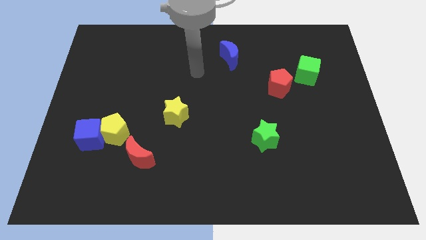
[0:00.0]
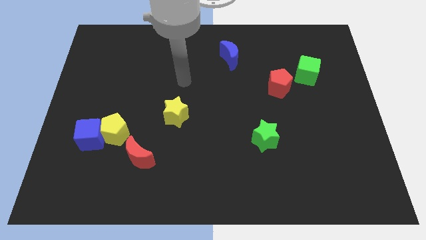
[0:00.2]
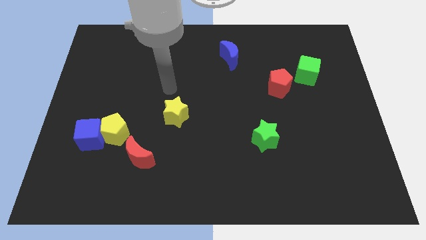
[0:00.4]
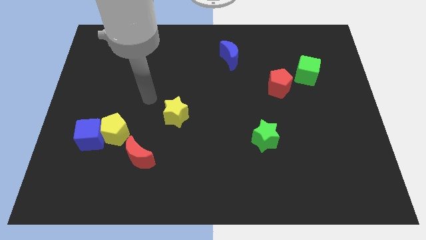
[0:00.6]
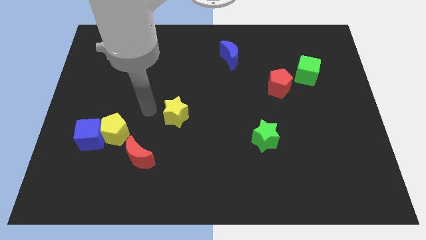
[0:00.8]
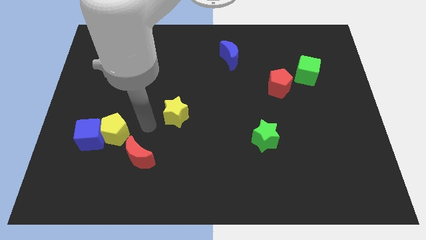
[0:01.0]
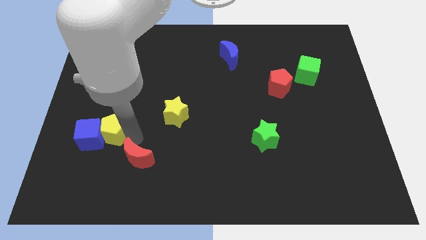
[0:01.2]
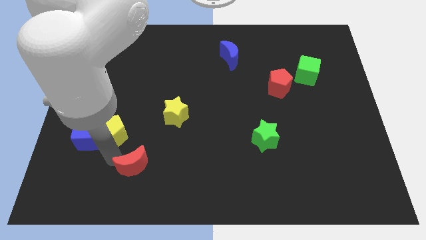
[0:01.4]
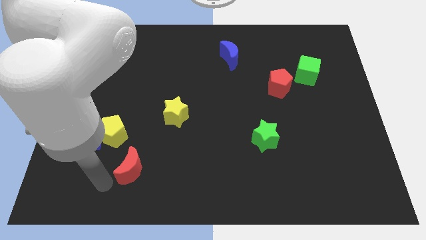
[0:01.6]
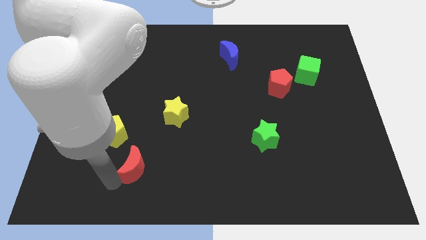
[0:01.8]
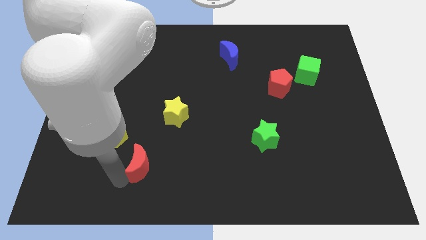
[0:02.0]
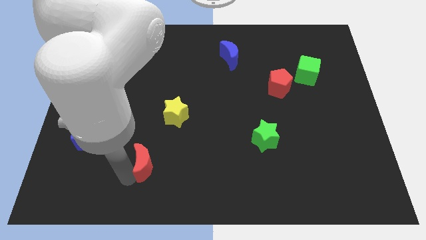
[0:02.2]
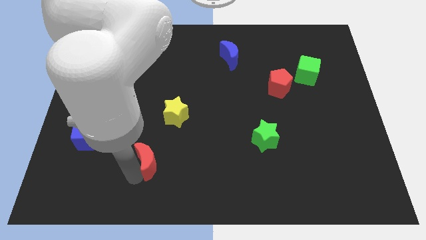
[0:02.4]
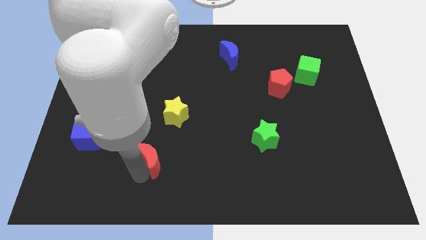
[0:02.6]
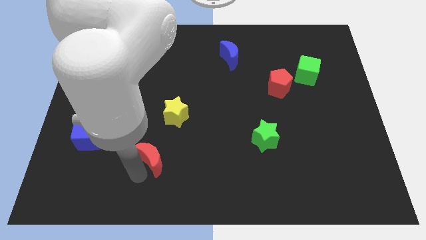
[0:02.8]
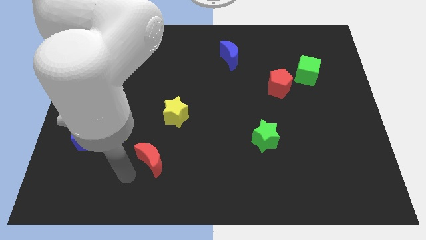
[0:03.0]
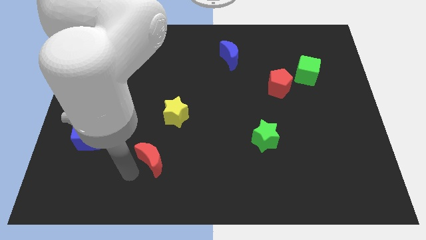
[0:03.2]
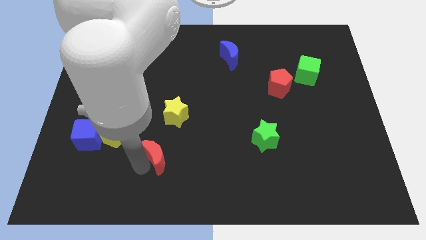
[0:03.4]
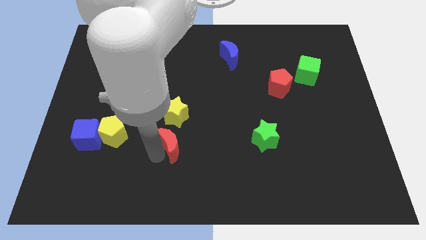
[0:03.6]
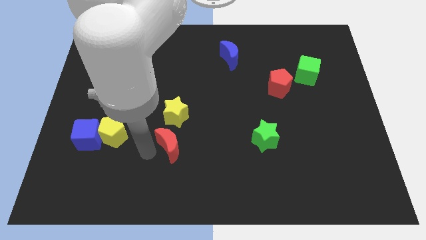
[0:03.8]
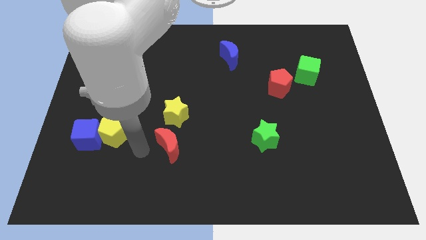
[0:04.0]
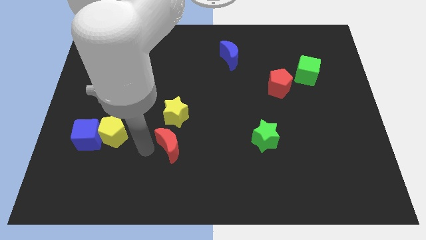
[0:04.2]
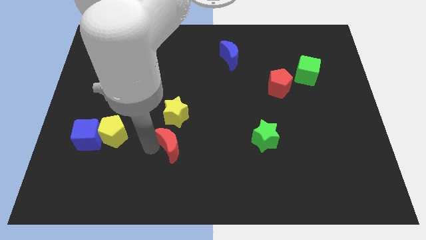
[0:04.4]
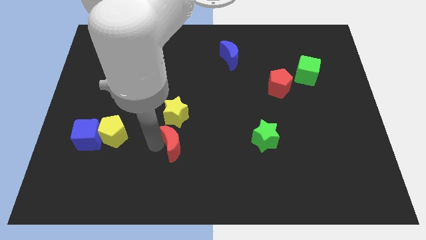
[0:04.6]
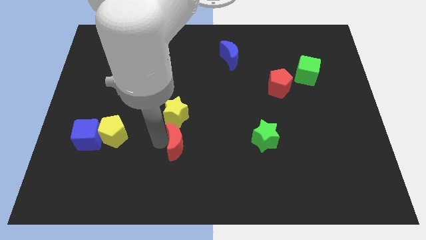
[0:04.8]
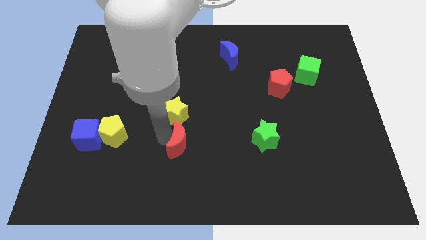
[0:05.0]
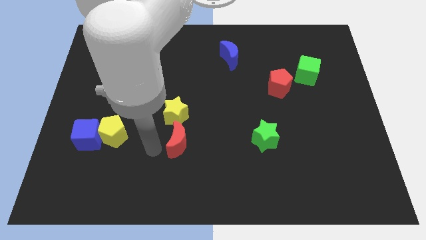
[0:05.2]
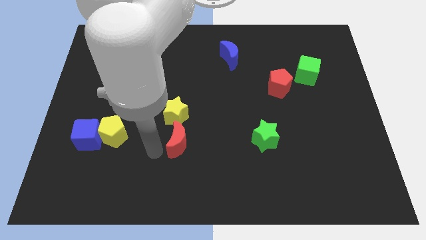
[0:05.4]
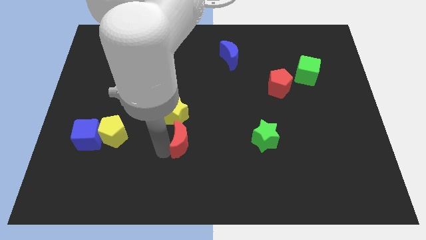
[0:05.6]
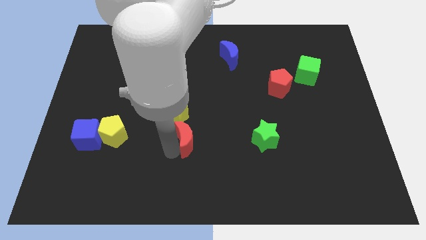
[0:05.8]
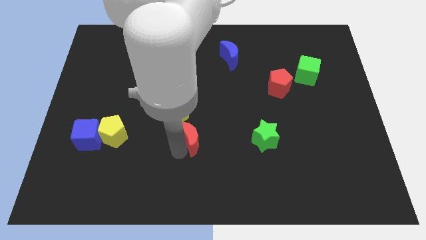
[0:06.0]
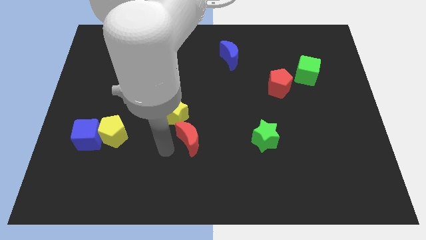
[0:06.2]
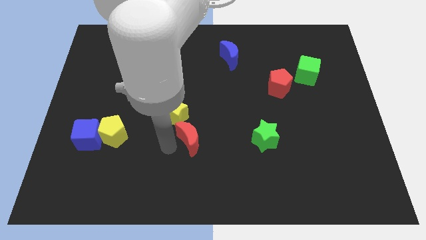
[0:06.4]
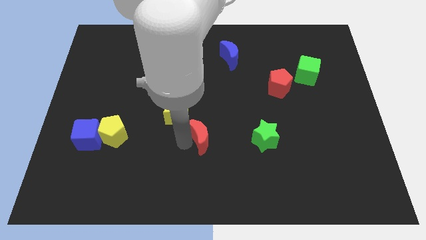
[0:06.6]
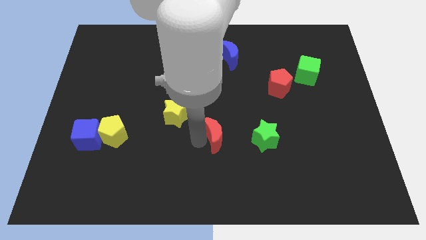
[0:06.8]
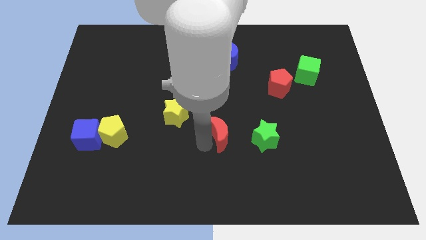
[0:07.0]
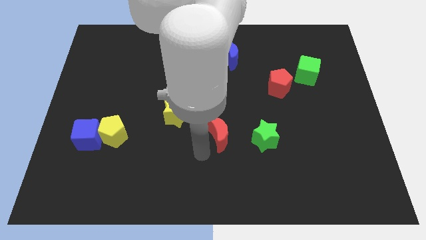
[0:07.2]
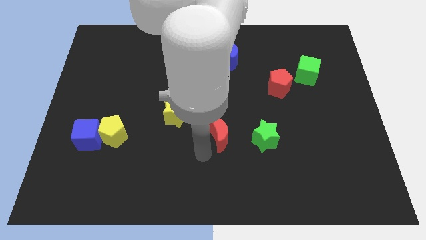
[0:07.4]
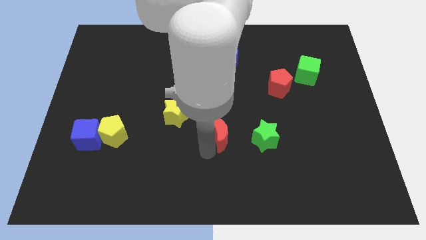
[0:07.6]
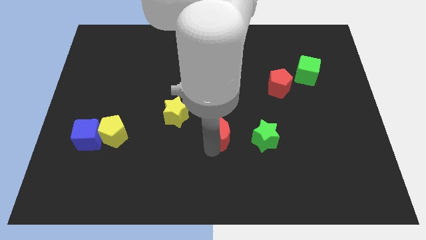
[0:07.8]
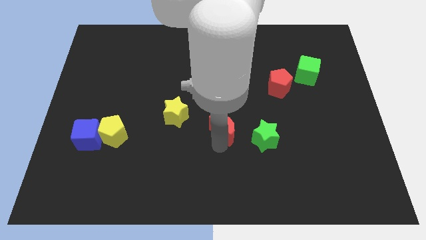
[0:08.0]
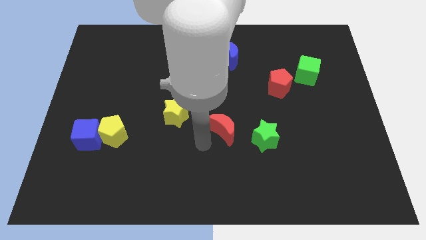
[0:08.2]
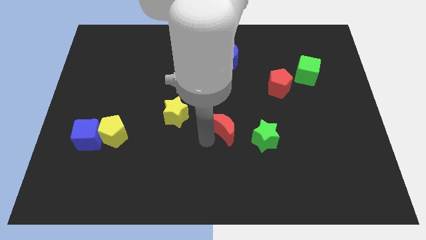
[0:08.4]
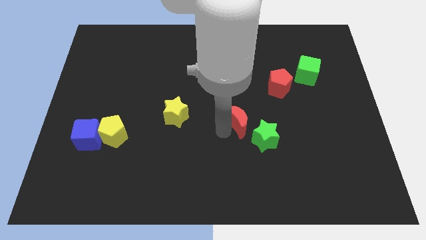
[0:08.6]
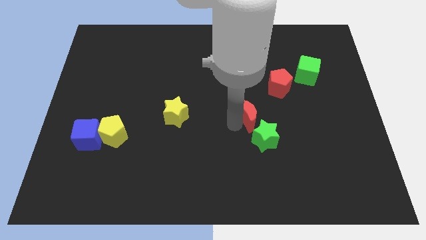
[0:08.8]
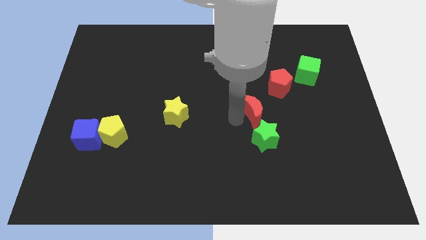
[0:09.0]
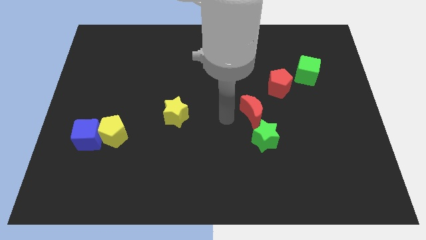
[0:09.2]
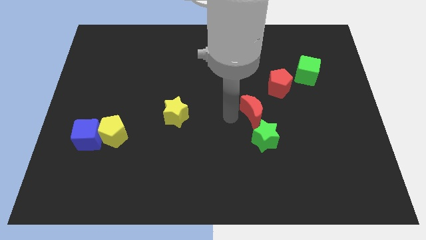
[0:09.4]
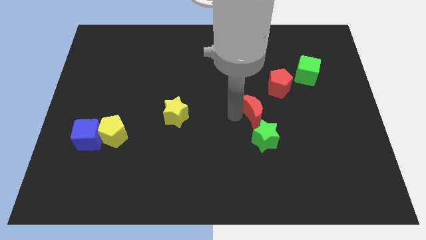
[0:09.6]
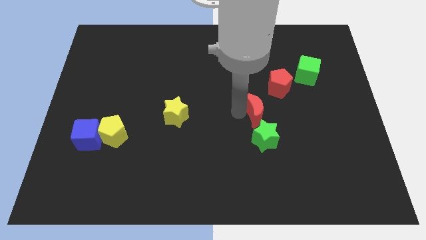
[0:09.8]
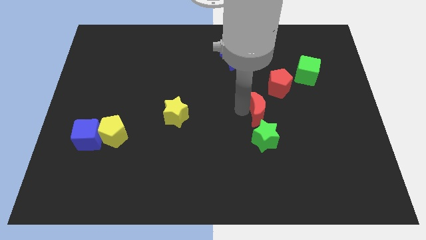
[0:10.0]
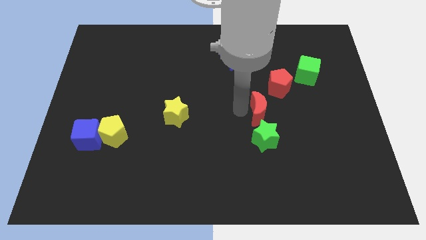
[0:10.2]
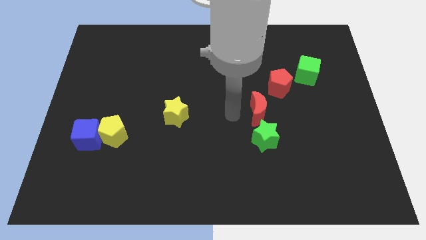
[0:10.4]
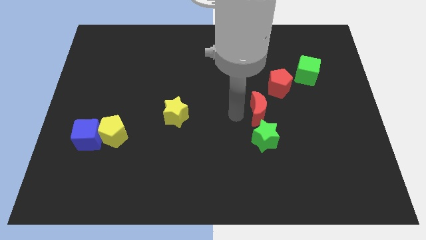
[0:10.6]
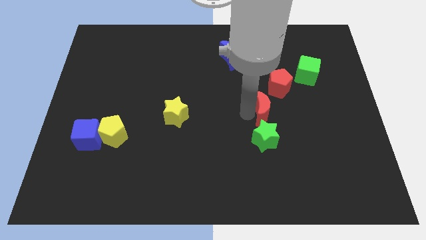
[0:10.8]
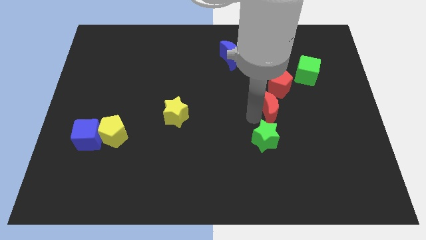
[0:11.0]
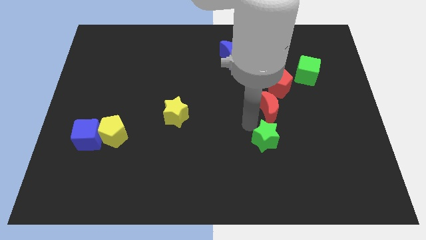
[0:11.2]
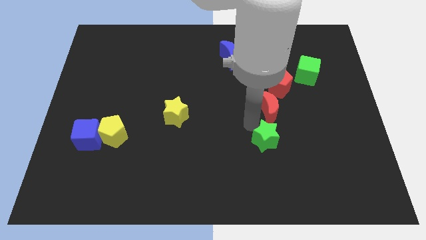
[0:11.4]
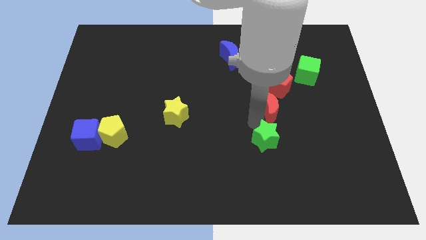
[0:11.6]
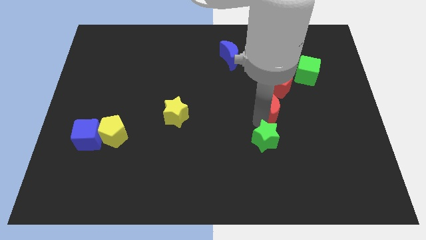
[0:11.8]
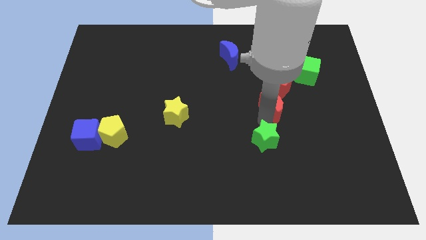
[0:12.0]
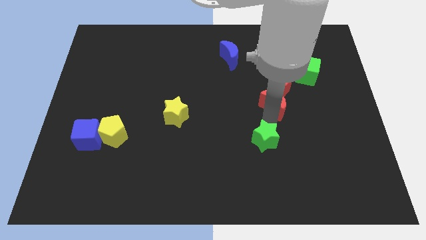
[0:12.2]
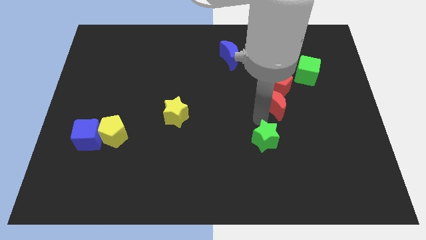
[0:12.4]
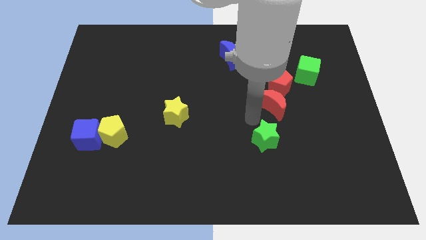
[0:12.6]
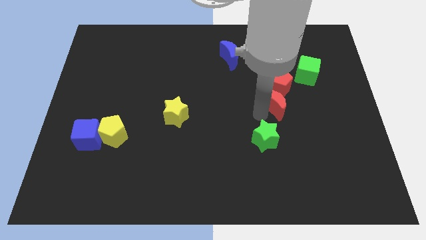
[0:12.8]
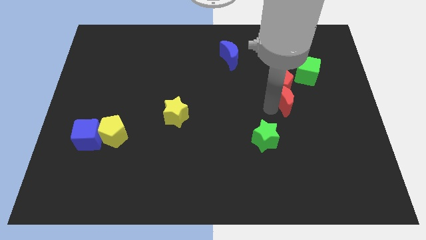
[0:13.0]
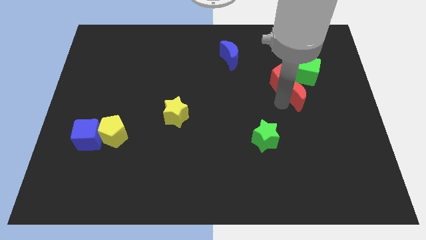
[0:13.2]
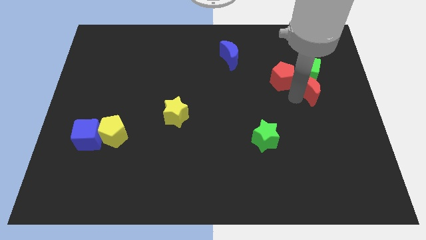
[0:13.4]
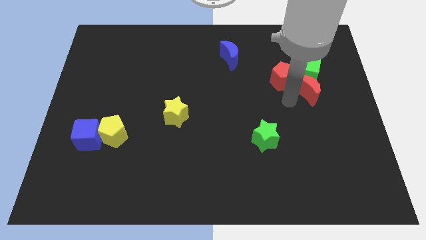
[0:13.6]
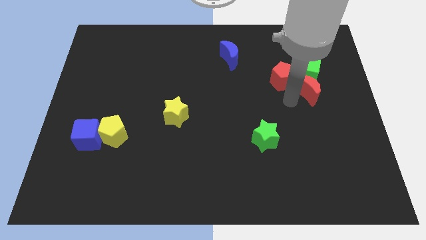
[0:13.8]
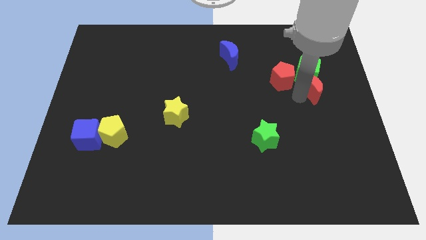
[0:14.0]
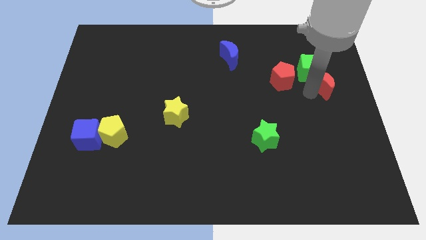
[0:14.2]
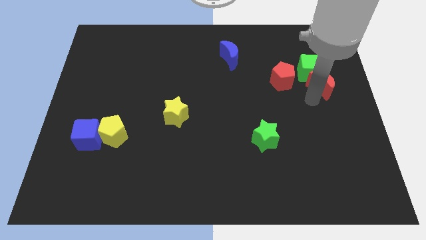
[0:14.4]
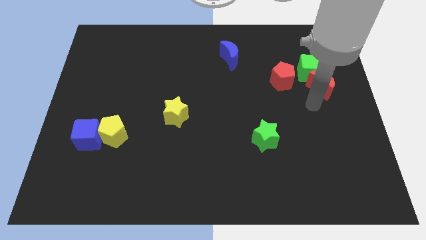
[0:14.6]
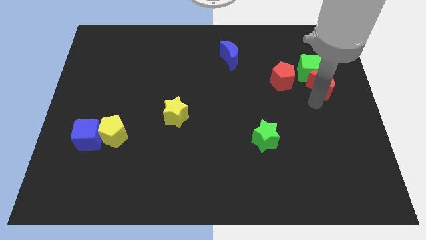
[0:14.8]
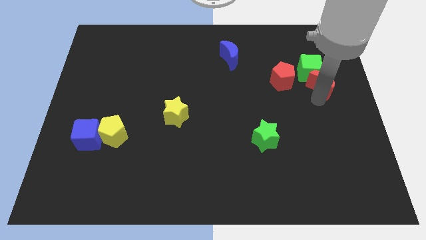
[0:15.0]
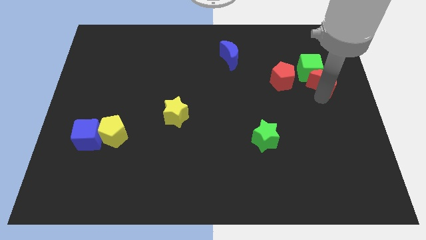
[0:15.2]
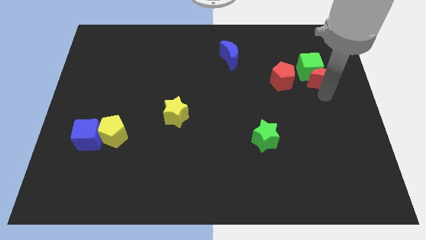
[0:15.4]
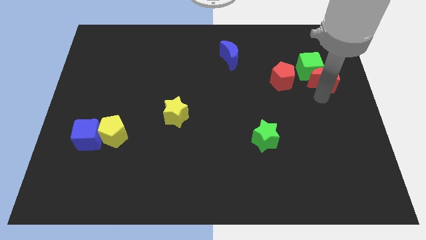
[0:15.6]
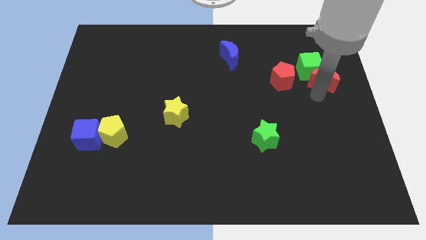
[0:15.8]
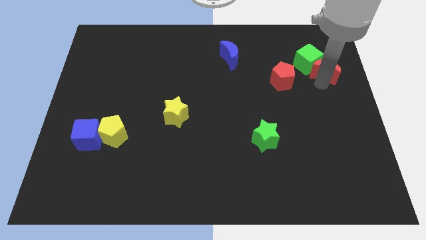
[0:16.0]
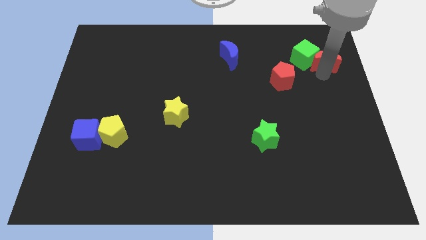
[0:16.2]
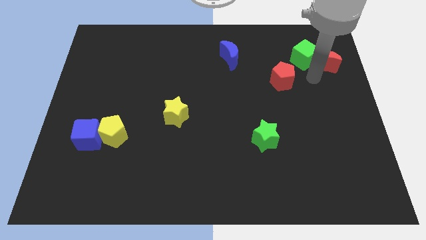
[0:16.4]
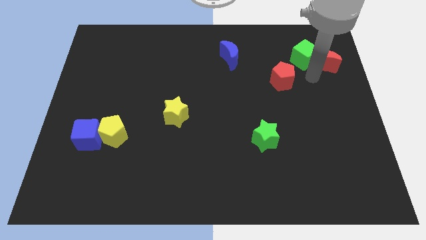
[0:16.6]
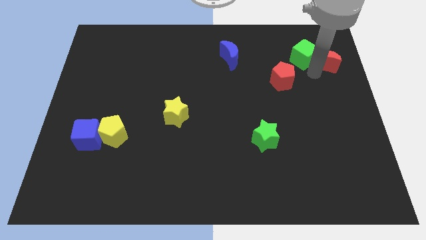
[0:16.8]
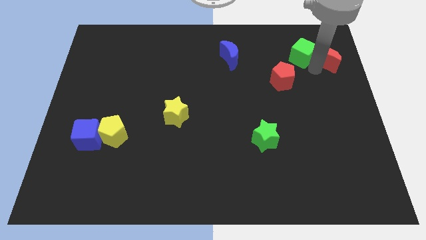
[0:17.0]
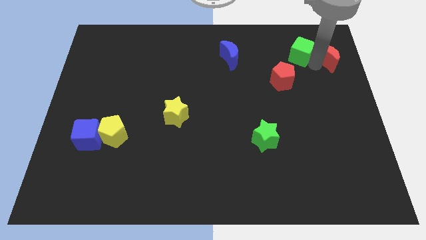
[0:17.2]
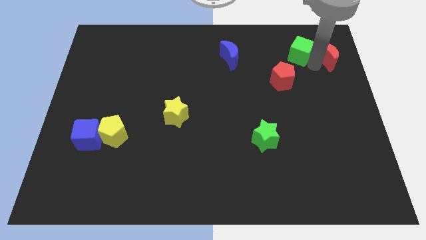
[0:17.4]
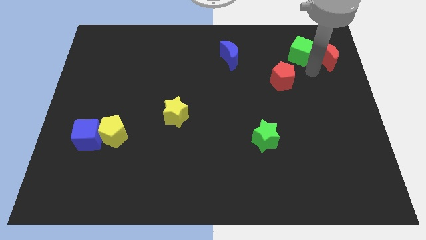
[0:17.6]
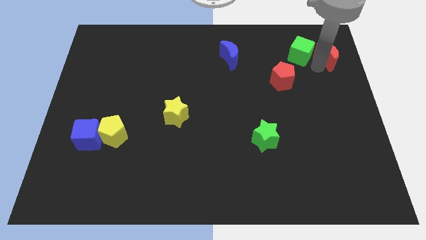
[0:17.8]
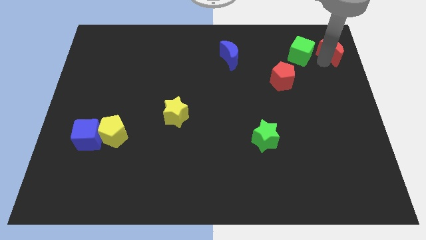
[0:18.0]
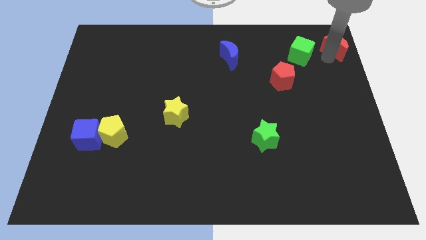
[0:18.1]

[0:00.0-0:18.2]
move the red moon to the top right of the board
